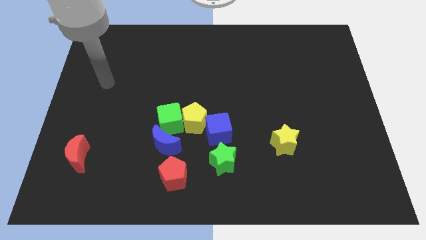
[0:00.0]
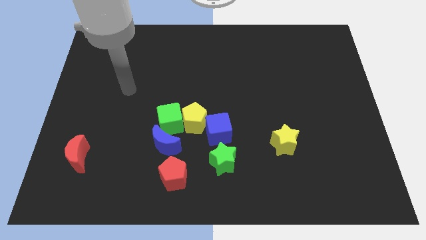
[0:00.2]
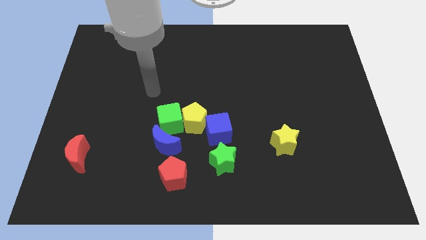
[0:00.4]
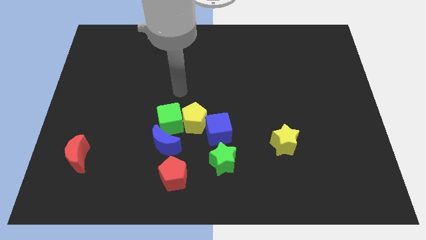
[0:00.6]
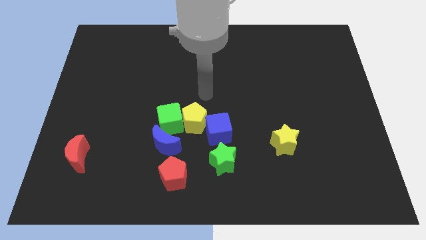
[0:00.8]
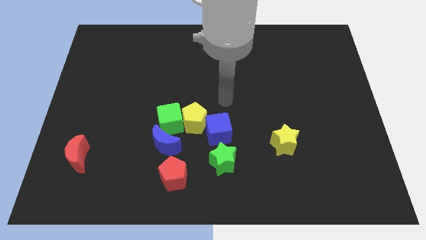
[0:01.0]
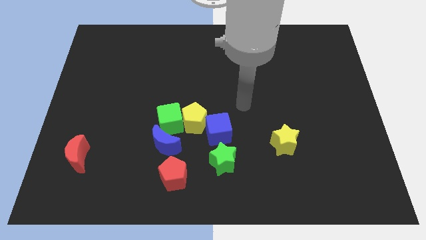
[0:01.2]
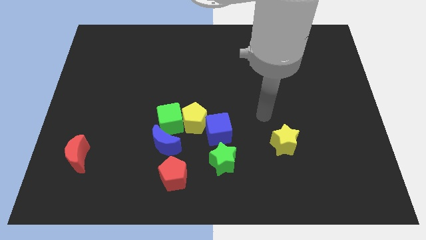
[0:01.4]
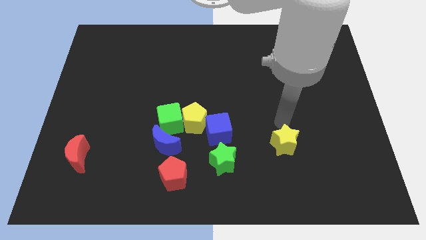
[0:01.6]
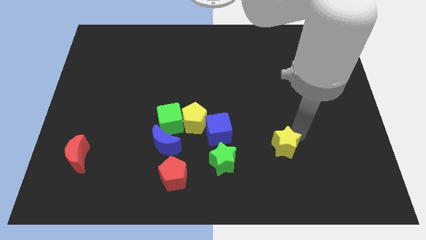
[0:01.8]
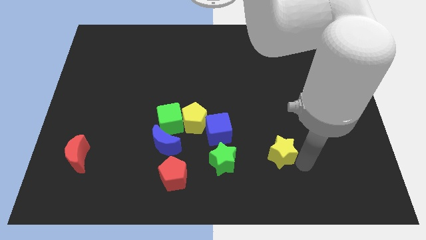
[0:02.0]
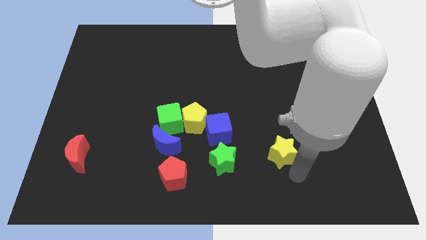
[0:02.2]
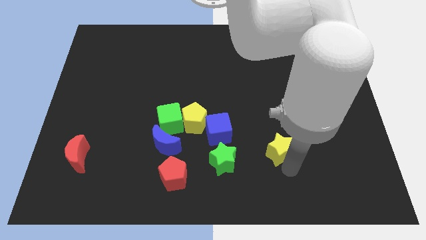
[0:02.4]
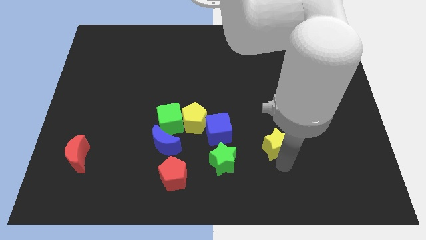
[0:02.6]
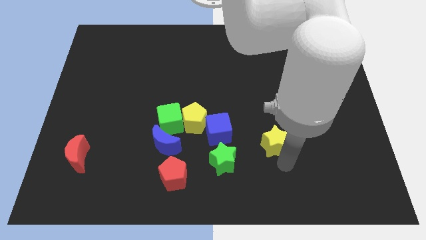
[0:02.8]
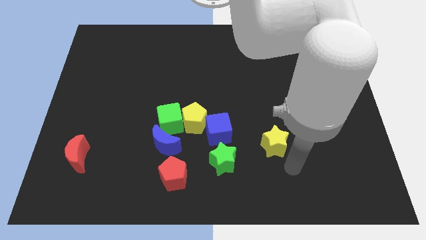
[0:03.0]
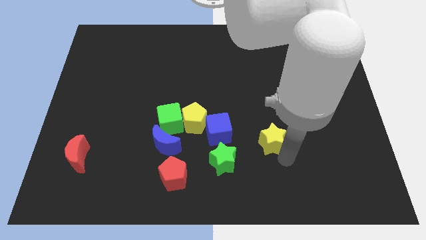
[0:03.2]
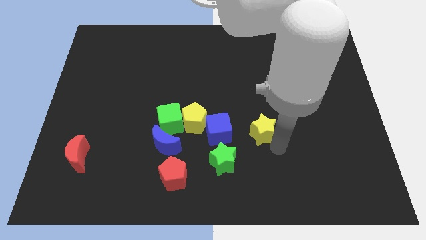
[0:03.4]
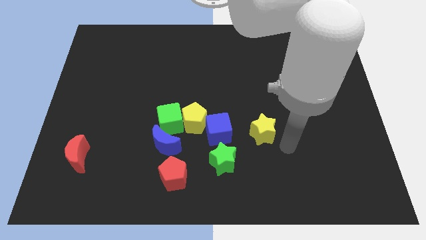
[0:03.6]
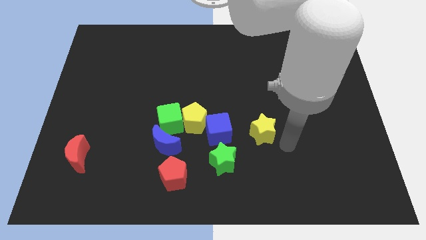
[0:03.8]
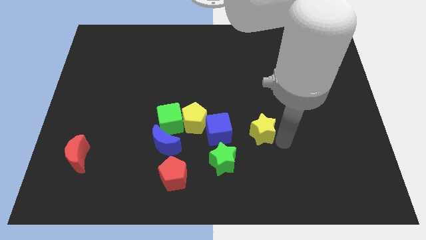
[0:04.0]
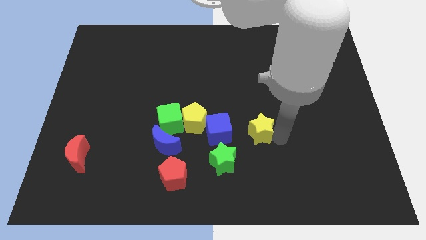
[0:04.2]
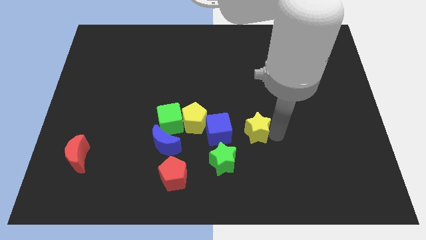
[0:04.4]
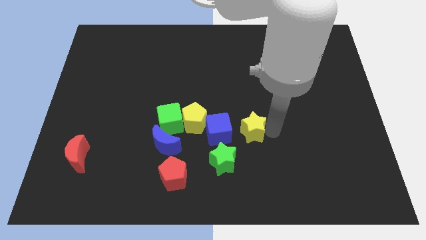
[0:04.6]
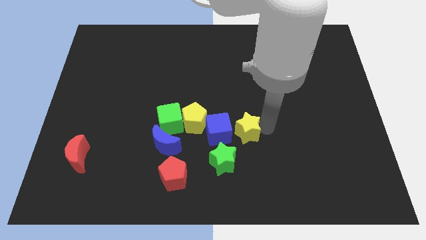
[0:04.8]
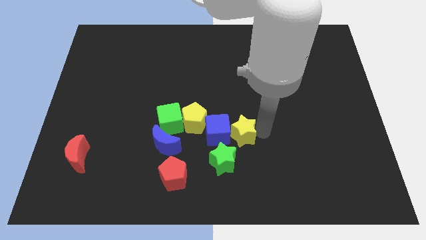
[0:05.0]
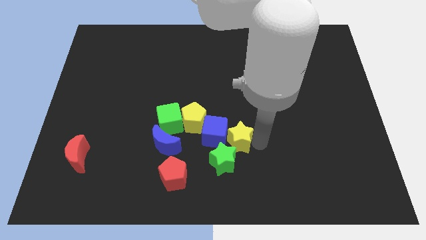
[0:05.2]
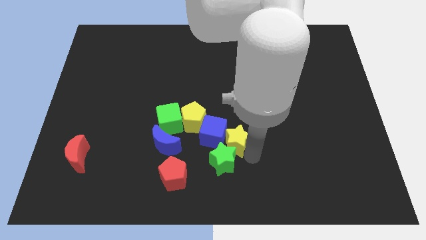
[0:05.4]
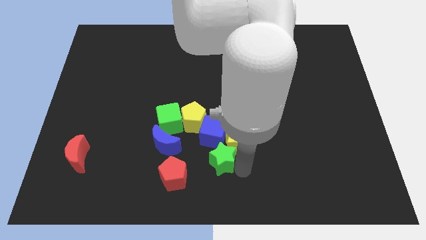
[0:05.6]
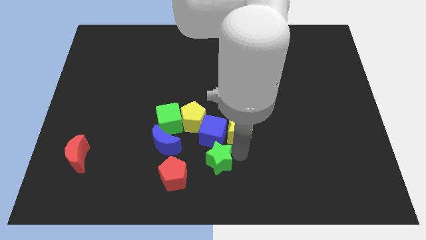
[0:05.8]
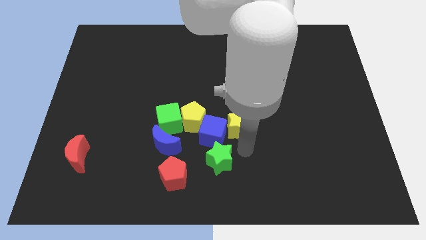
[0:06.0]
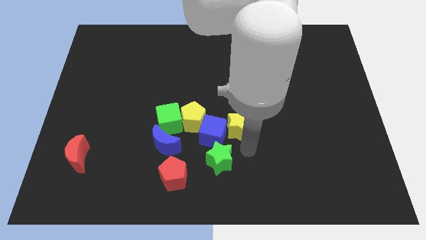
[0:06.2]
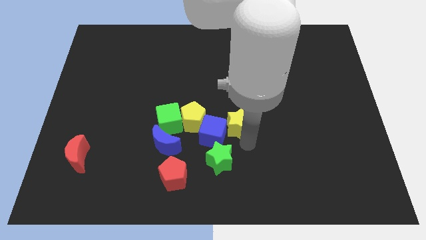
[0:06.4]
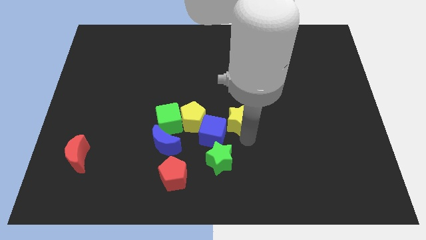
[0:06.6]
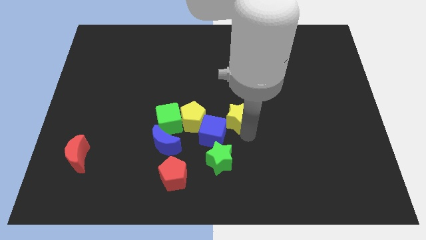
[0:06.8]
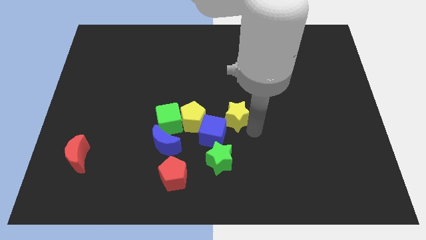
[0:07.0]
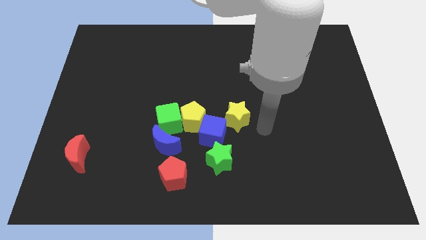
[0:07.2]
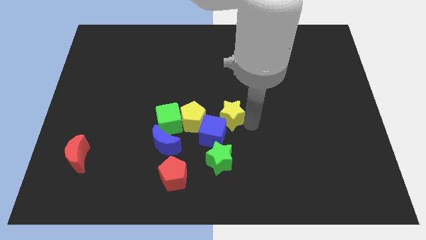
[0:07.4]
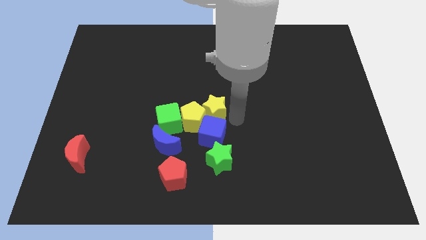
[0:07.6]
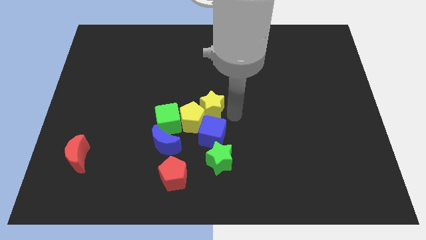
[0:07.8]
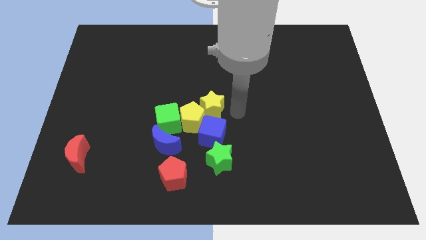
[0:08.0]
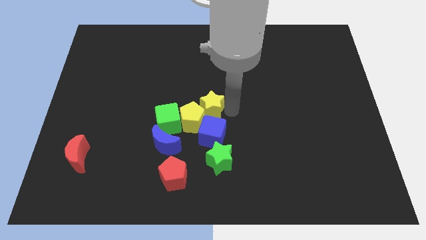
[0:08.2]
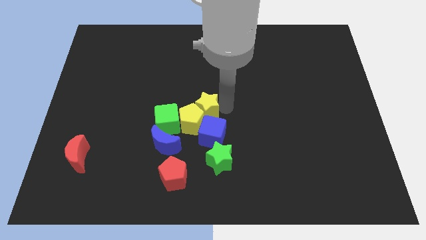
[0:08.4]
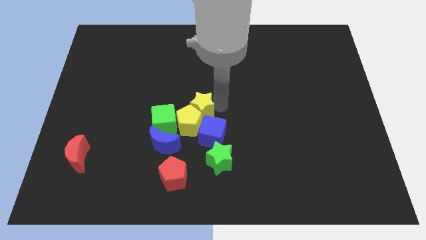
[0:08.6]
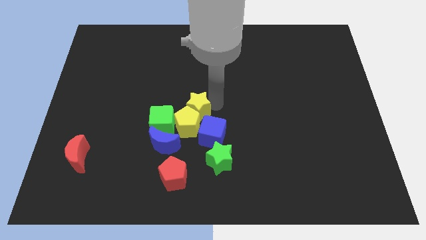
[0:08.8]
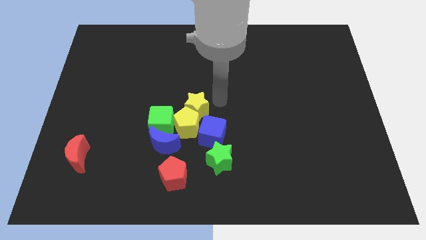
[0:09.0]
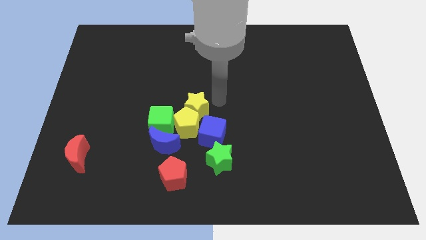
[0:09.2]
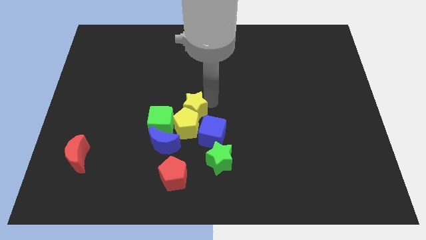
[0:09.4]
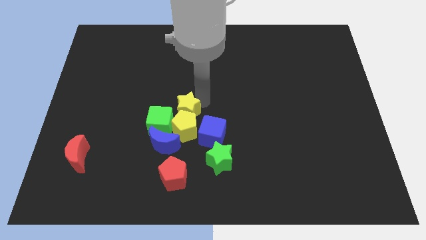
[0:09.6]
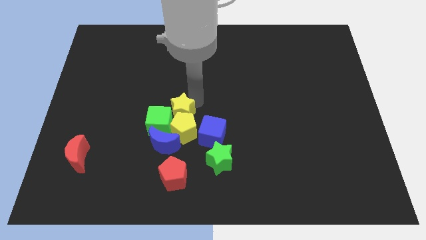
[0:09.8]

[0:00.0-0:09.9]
put the yellow star next to the green cube

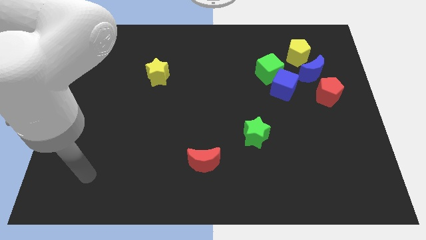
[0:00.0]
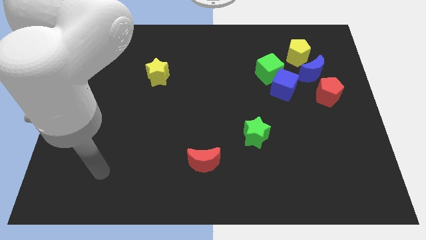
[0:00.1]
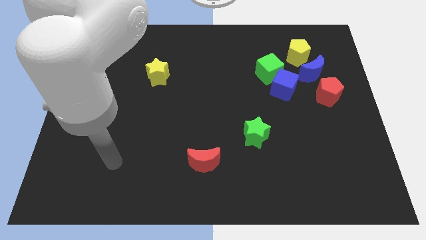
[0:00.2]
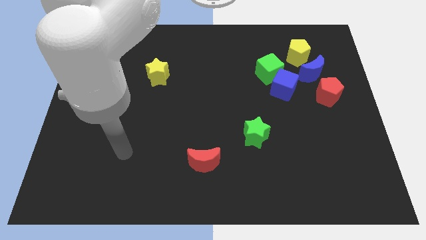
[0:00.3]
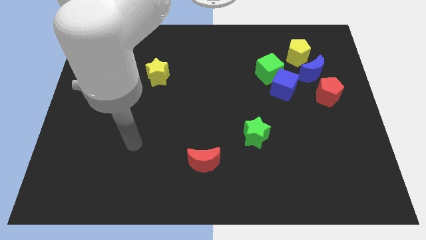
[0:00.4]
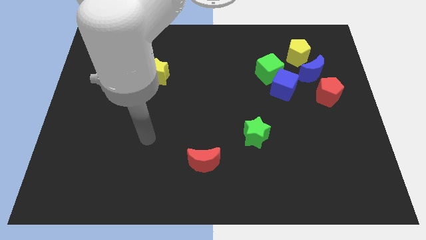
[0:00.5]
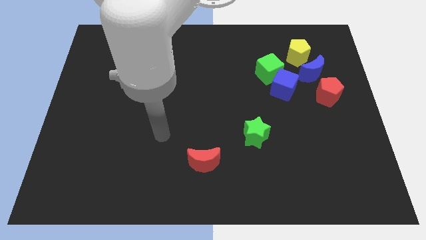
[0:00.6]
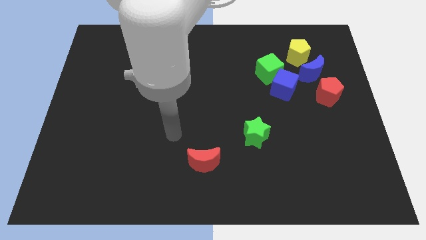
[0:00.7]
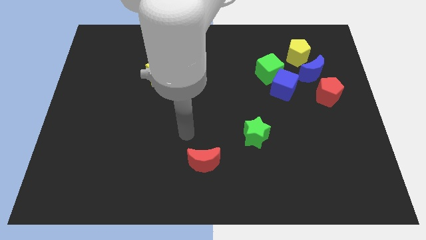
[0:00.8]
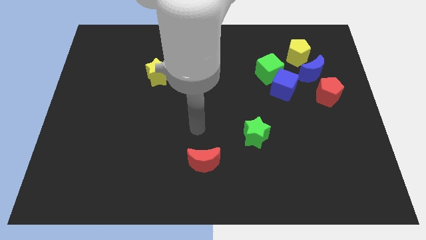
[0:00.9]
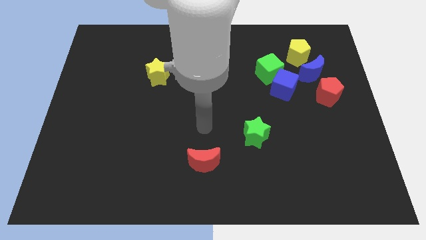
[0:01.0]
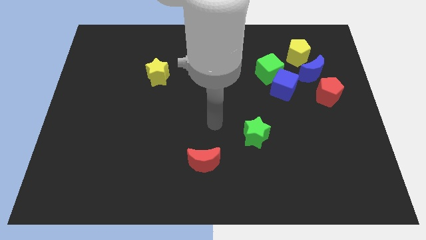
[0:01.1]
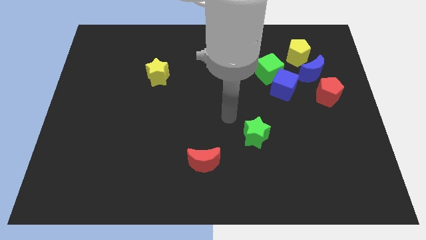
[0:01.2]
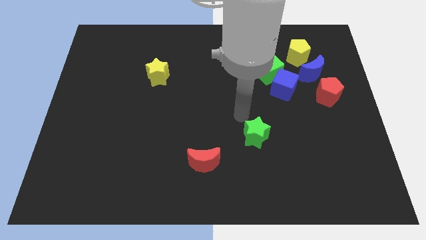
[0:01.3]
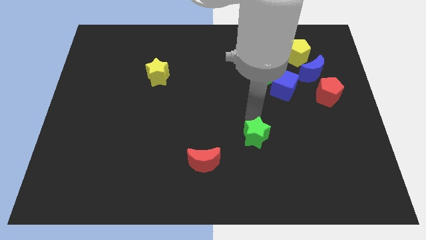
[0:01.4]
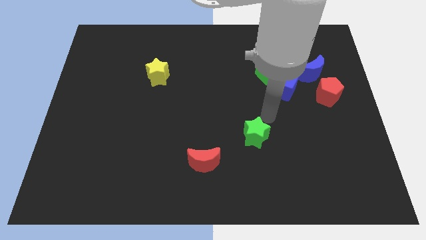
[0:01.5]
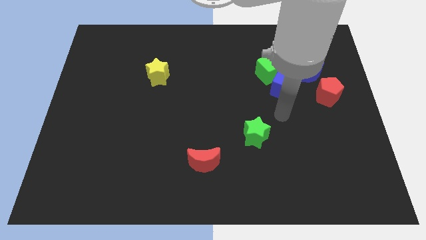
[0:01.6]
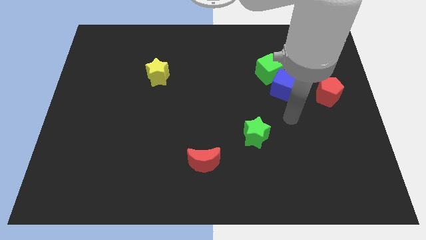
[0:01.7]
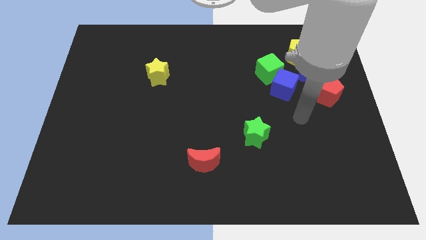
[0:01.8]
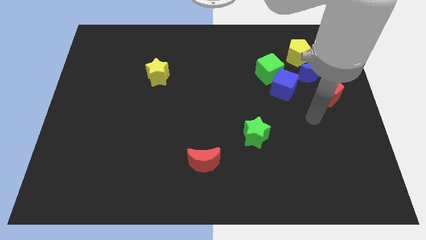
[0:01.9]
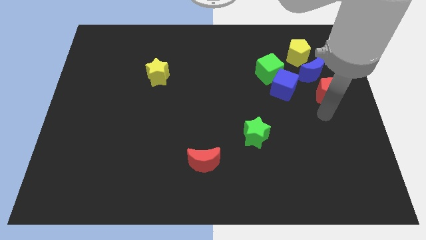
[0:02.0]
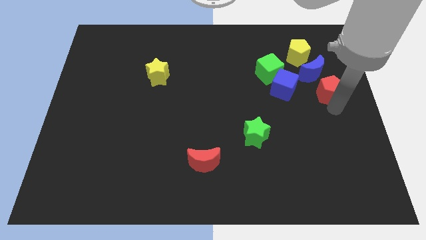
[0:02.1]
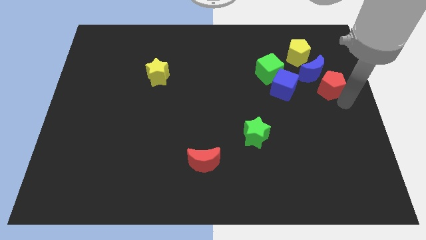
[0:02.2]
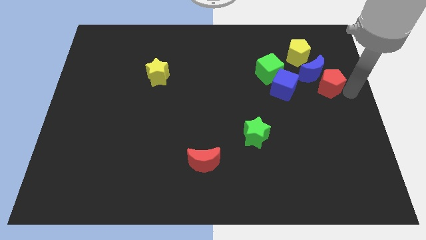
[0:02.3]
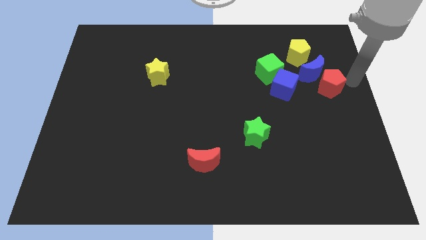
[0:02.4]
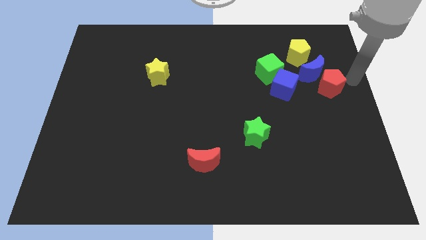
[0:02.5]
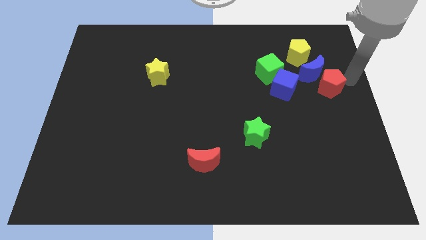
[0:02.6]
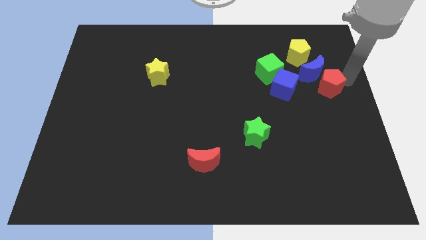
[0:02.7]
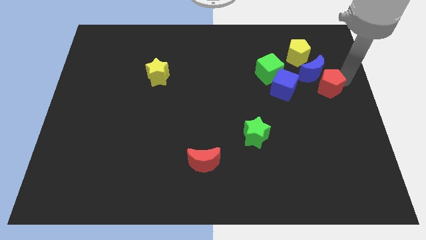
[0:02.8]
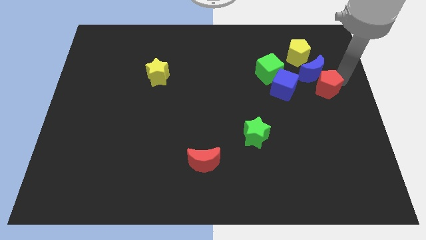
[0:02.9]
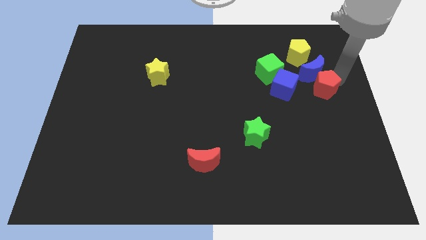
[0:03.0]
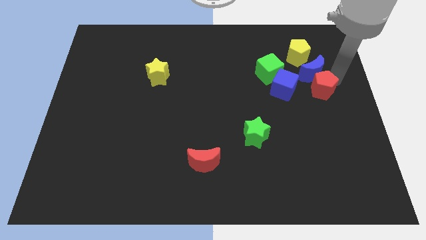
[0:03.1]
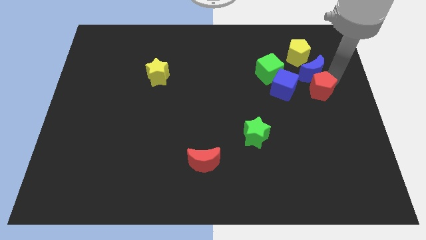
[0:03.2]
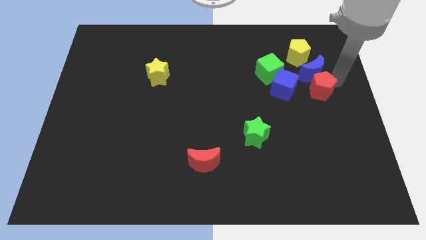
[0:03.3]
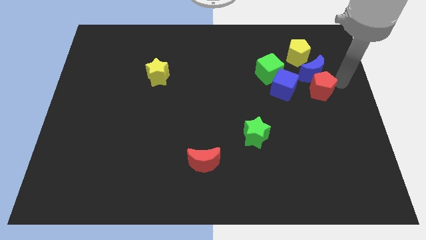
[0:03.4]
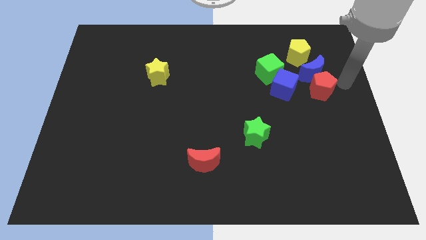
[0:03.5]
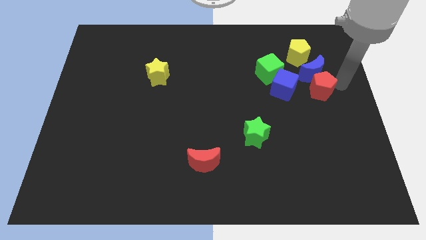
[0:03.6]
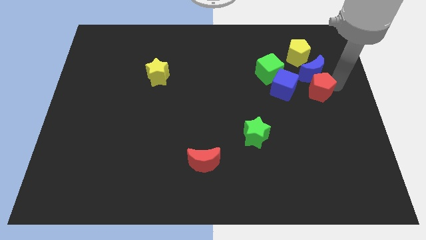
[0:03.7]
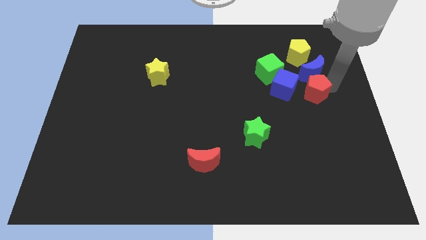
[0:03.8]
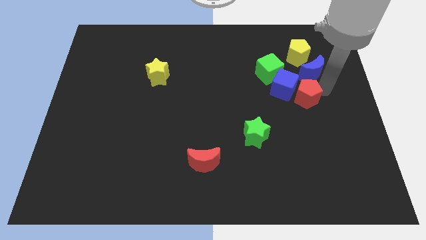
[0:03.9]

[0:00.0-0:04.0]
slide the red pentagon towards the blue cube
